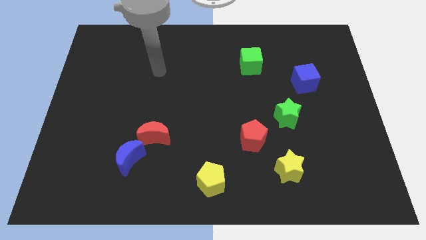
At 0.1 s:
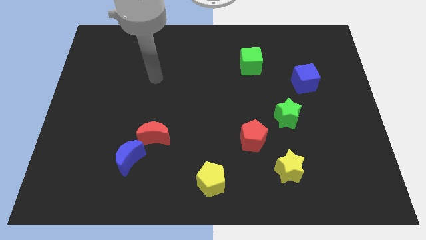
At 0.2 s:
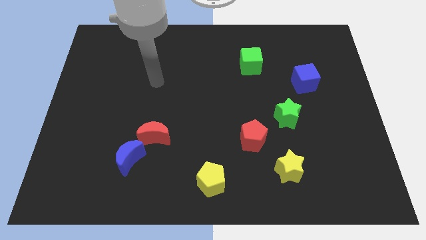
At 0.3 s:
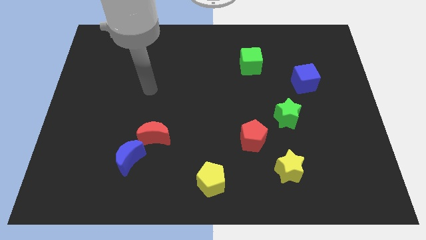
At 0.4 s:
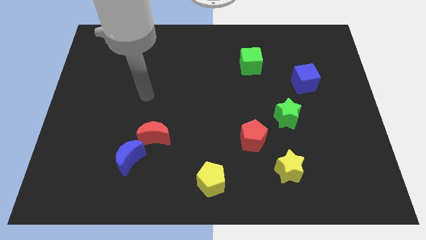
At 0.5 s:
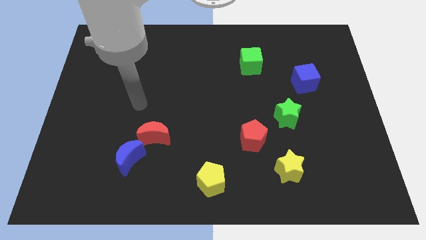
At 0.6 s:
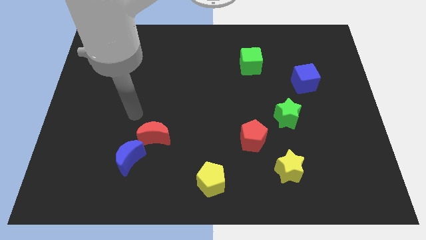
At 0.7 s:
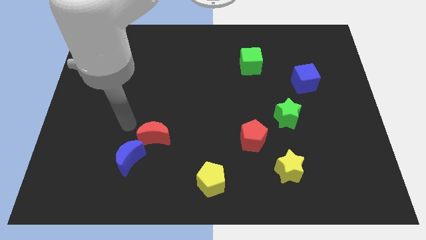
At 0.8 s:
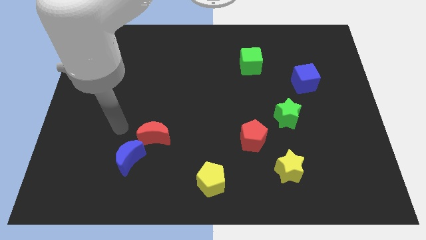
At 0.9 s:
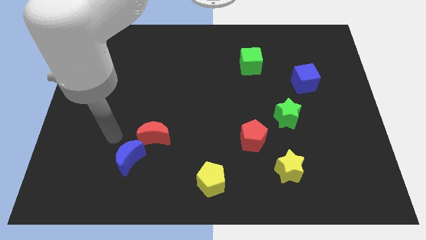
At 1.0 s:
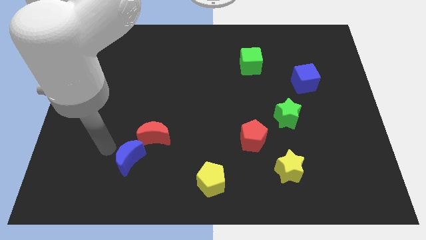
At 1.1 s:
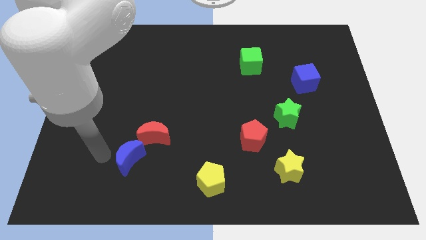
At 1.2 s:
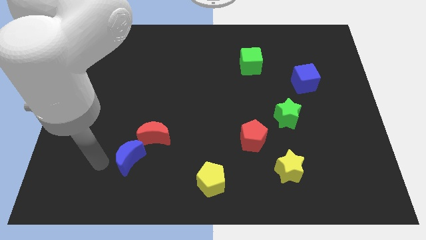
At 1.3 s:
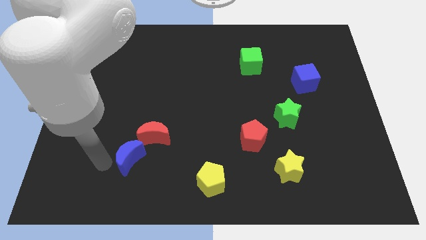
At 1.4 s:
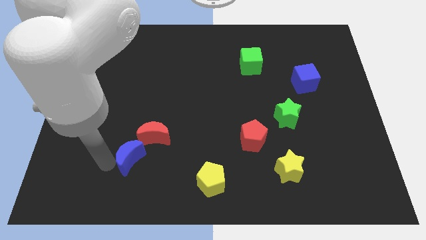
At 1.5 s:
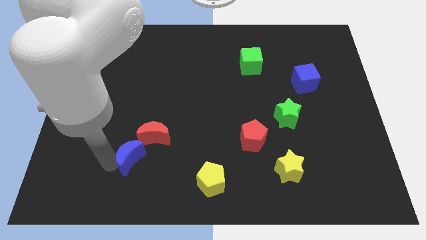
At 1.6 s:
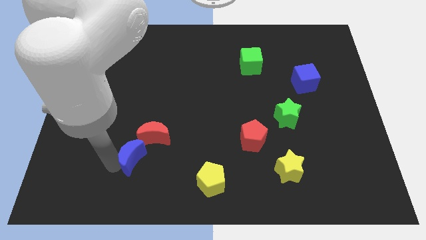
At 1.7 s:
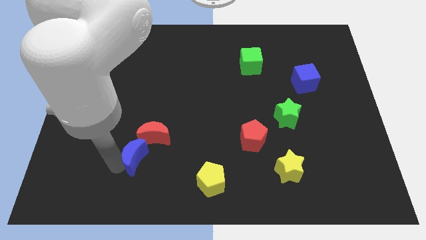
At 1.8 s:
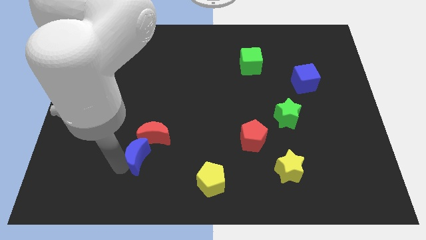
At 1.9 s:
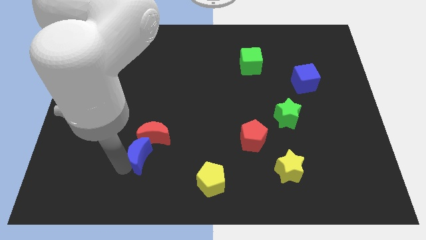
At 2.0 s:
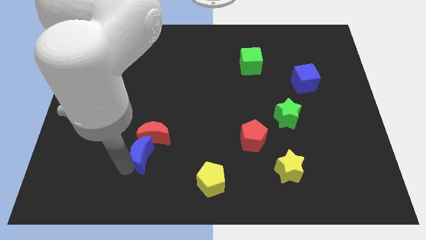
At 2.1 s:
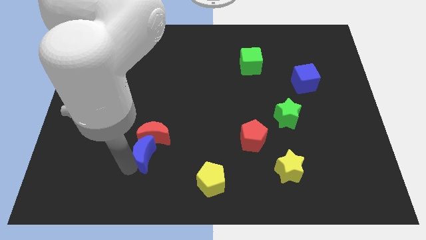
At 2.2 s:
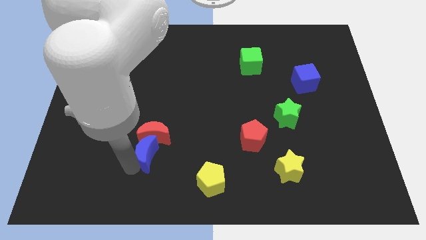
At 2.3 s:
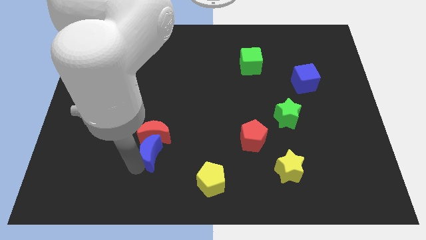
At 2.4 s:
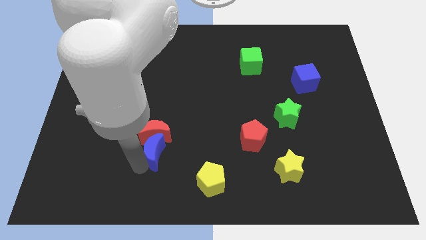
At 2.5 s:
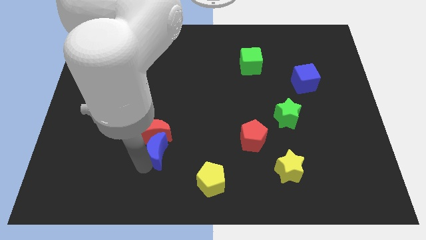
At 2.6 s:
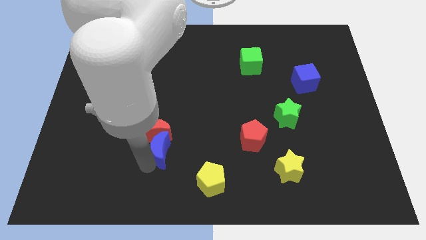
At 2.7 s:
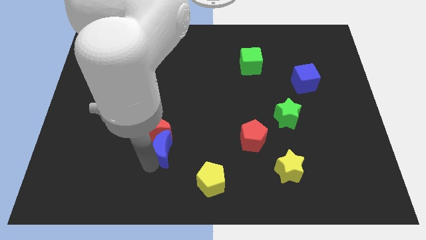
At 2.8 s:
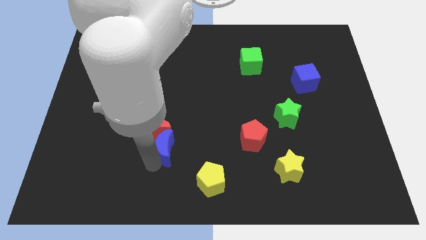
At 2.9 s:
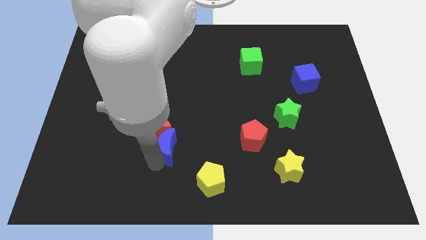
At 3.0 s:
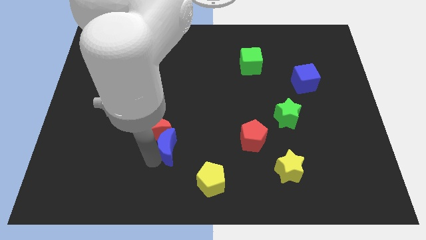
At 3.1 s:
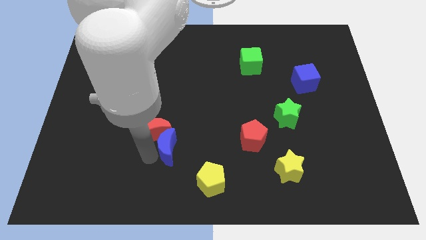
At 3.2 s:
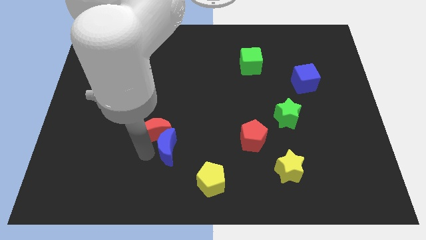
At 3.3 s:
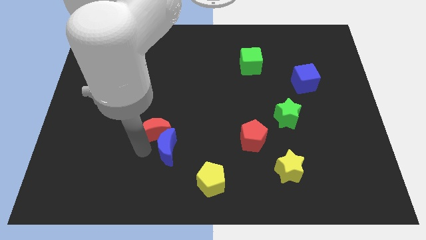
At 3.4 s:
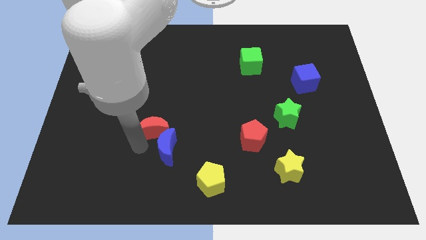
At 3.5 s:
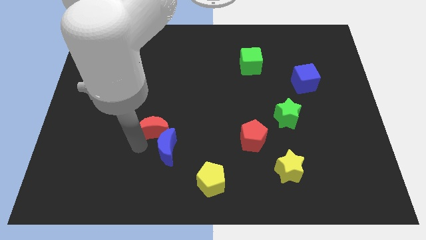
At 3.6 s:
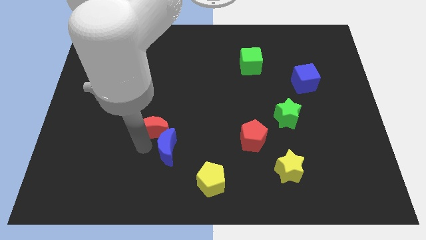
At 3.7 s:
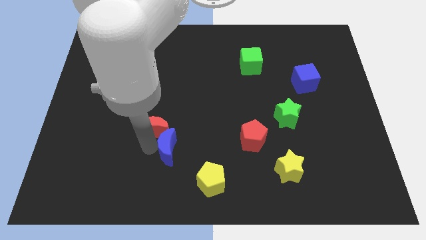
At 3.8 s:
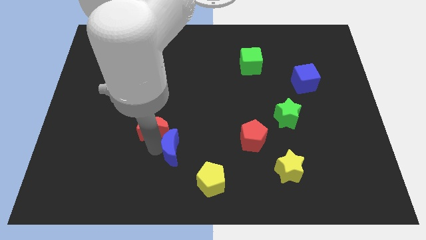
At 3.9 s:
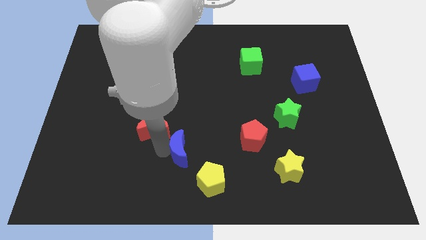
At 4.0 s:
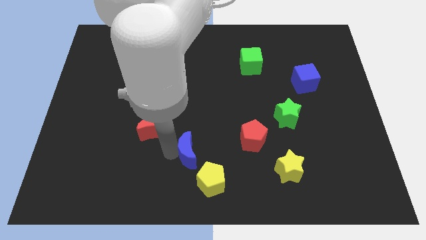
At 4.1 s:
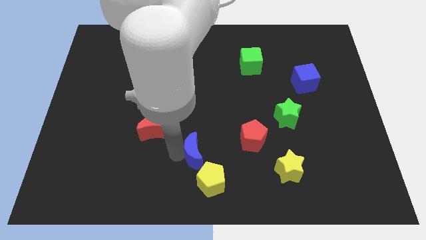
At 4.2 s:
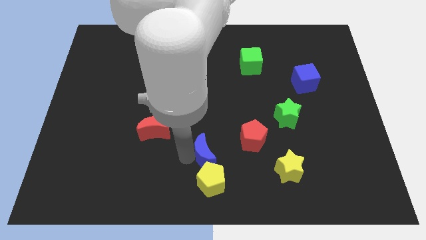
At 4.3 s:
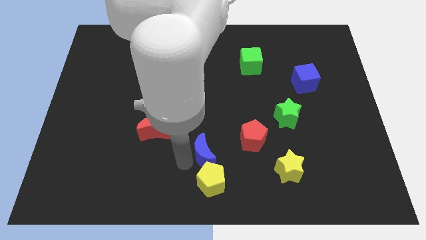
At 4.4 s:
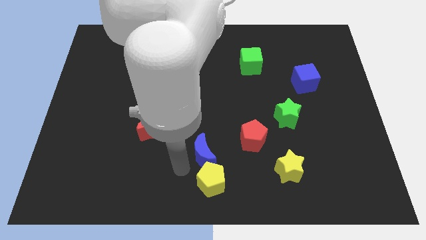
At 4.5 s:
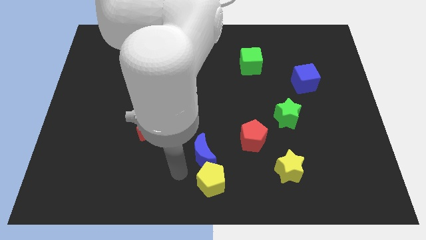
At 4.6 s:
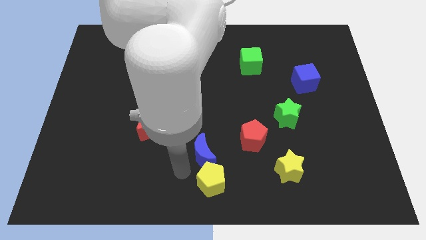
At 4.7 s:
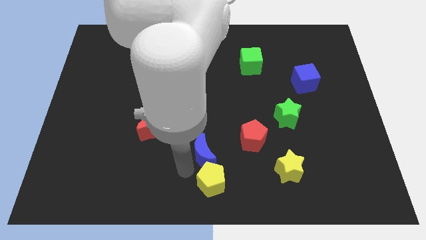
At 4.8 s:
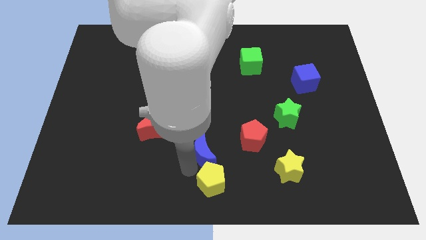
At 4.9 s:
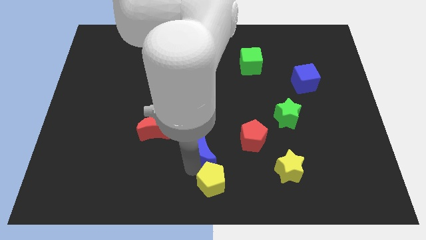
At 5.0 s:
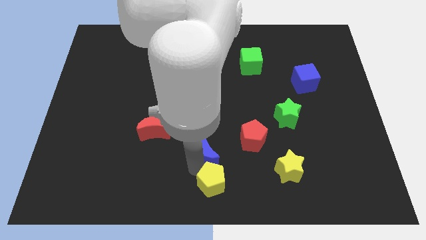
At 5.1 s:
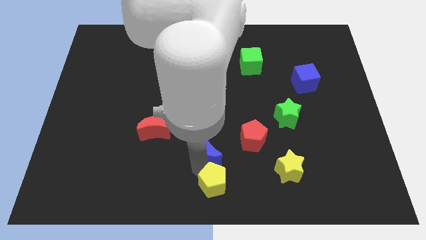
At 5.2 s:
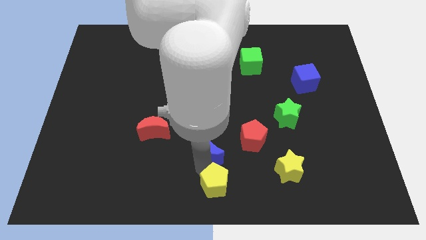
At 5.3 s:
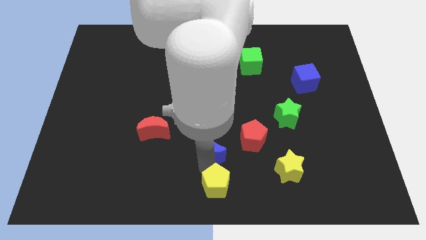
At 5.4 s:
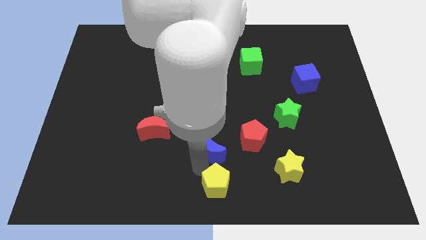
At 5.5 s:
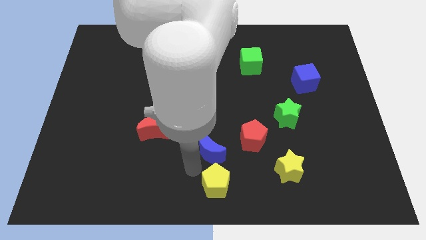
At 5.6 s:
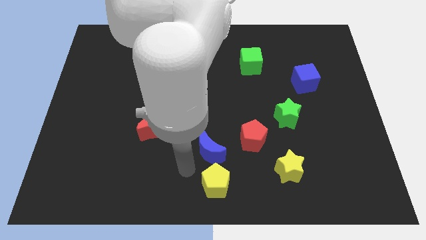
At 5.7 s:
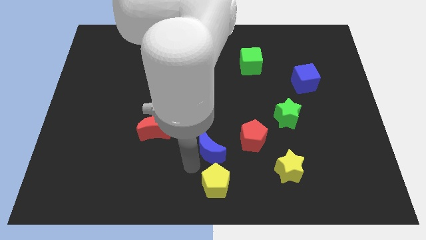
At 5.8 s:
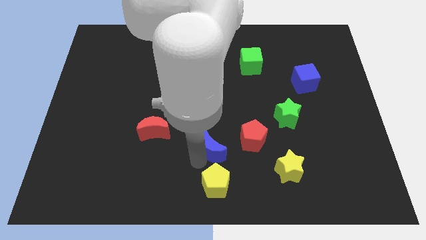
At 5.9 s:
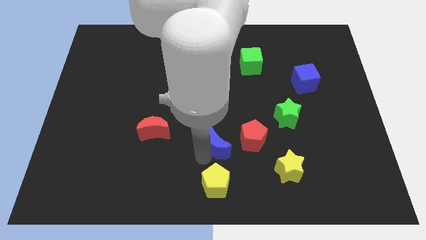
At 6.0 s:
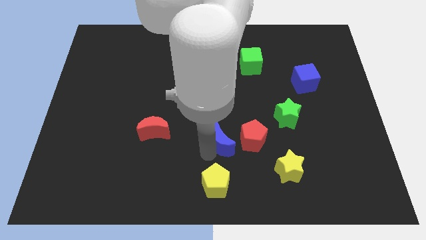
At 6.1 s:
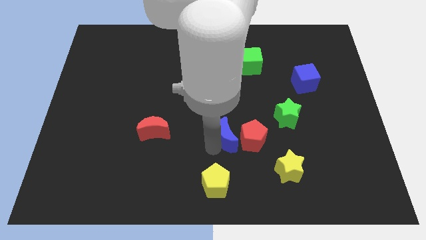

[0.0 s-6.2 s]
push the blue moon close to the red pentagon

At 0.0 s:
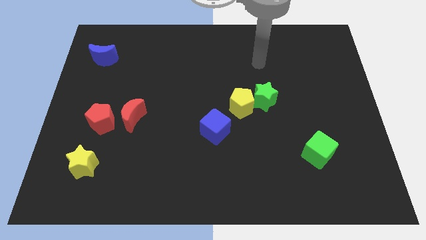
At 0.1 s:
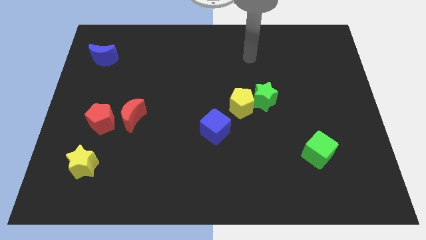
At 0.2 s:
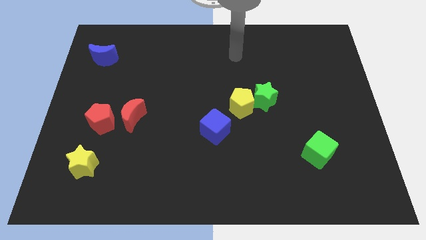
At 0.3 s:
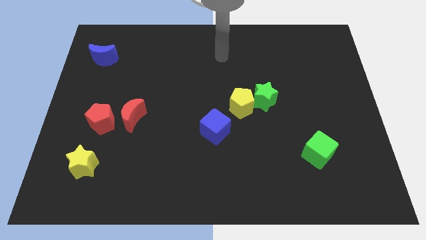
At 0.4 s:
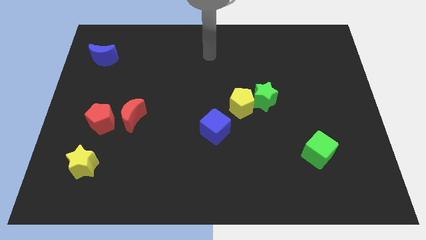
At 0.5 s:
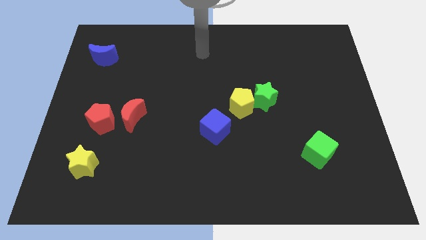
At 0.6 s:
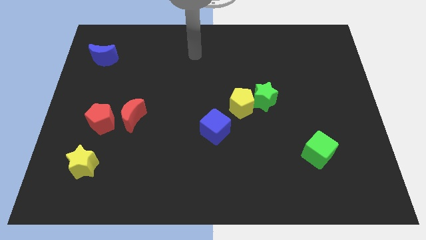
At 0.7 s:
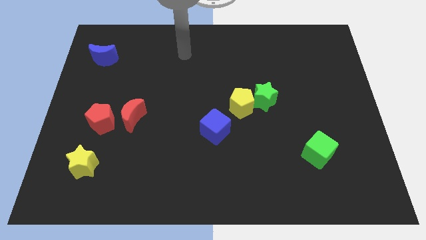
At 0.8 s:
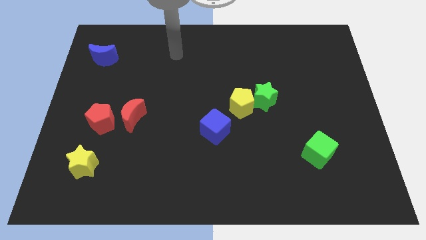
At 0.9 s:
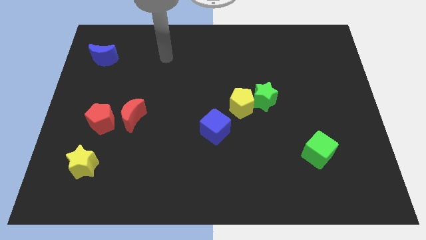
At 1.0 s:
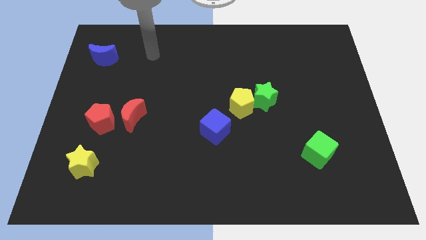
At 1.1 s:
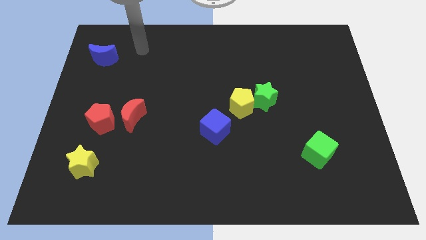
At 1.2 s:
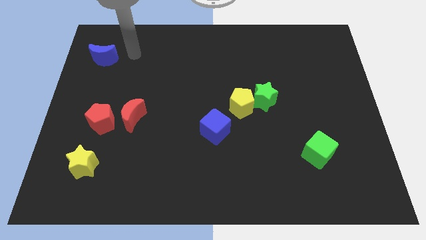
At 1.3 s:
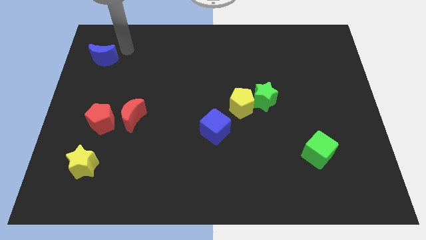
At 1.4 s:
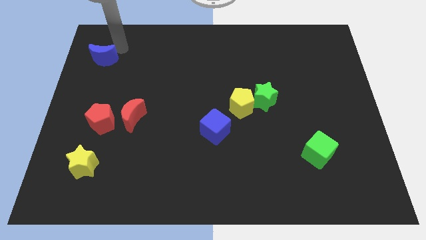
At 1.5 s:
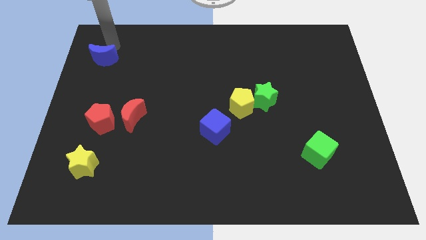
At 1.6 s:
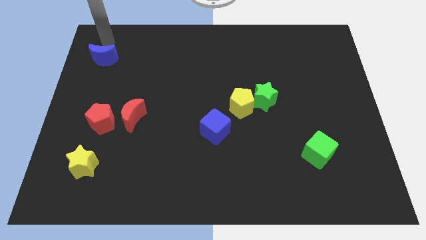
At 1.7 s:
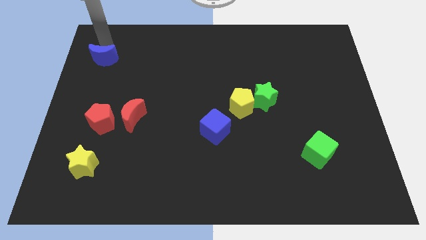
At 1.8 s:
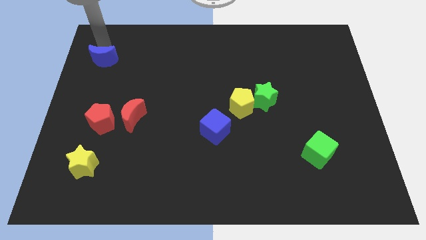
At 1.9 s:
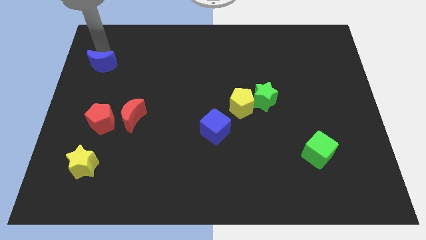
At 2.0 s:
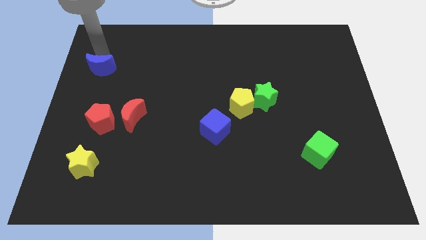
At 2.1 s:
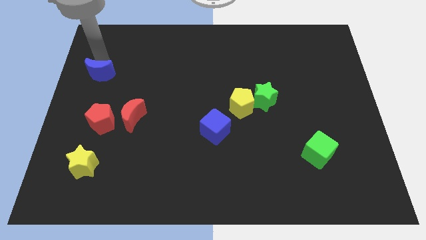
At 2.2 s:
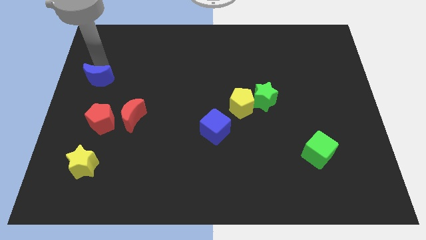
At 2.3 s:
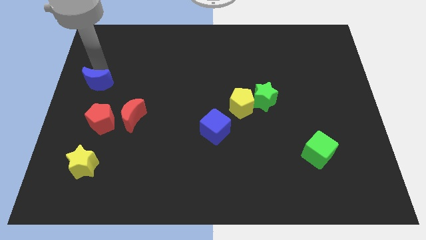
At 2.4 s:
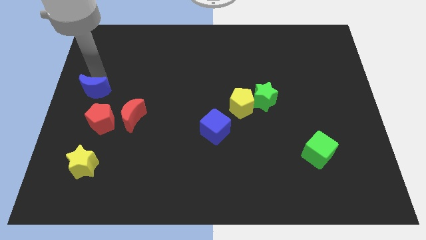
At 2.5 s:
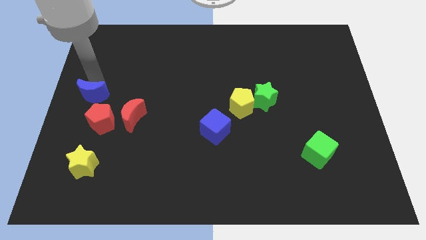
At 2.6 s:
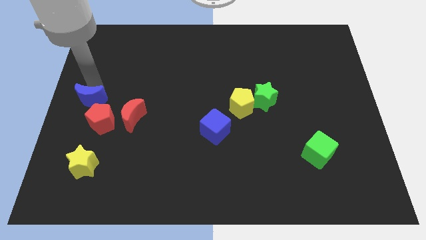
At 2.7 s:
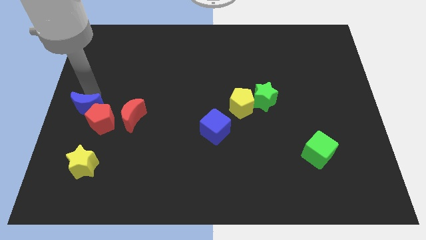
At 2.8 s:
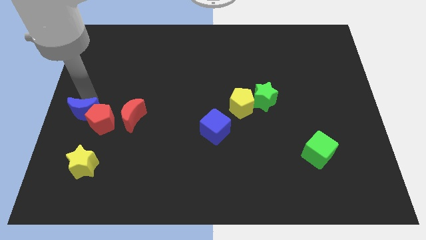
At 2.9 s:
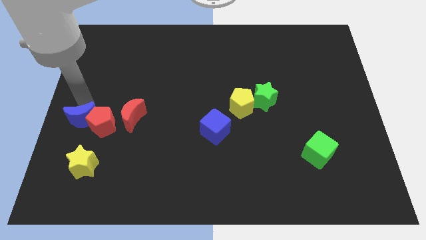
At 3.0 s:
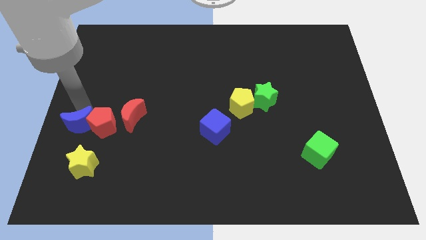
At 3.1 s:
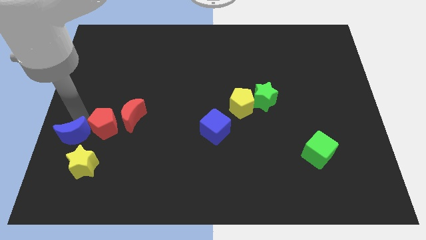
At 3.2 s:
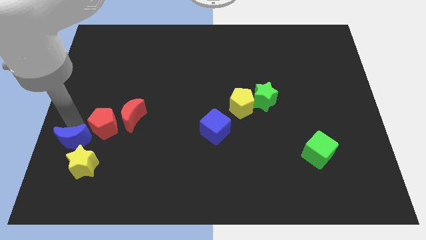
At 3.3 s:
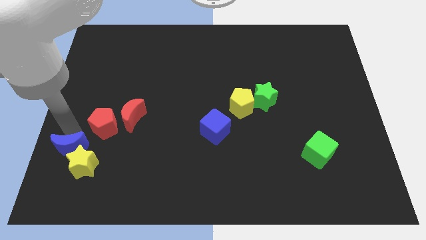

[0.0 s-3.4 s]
slide the blue moon close to the yellow star
